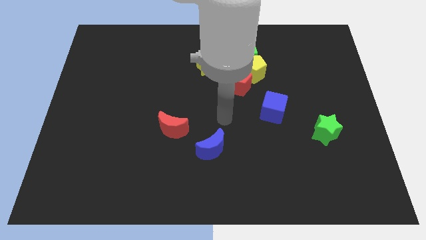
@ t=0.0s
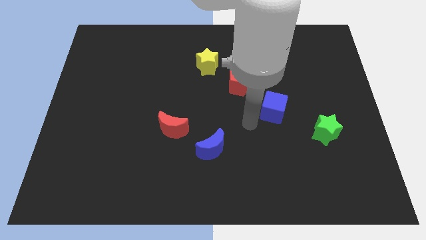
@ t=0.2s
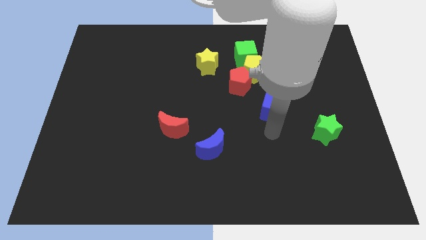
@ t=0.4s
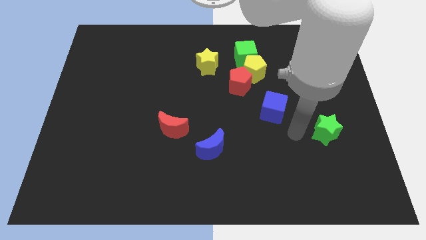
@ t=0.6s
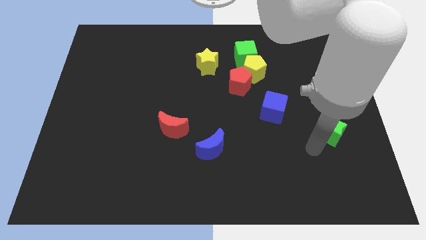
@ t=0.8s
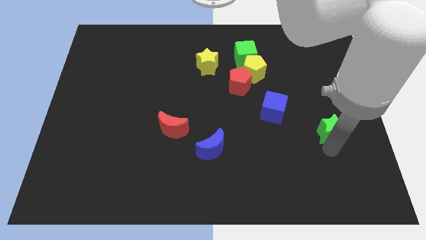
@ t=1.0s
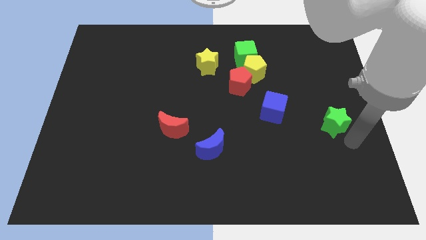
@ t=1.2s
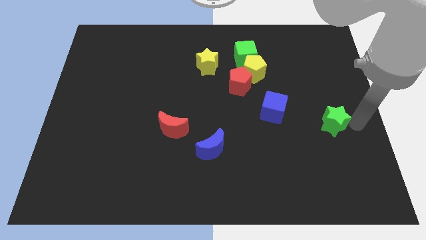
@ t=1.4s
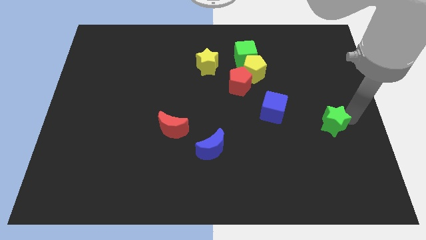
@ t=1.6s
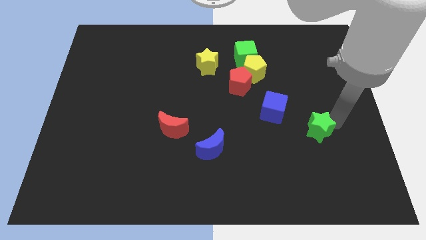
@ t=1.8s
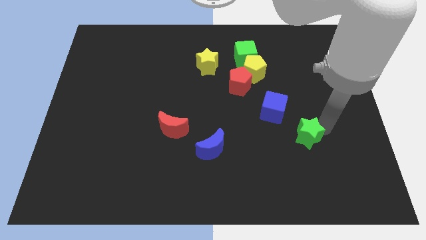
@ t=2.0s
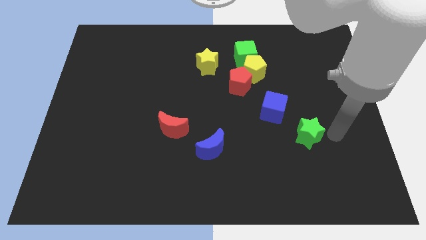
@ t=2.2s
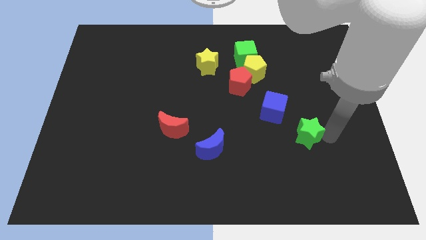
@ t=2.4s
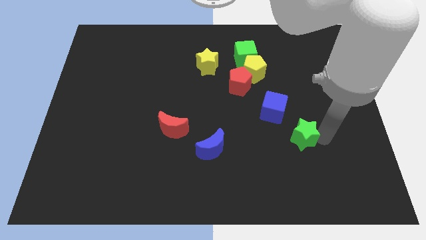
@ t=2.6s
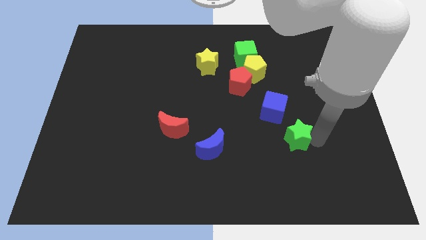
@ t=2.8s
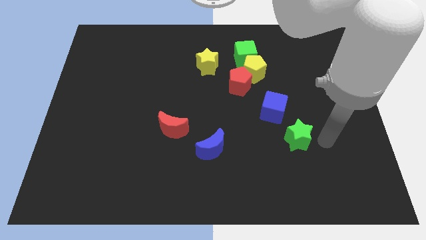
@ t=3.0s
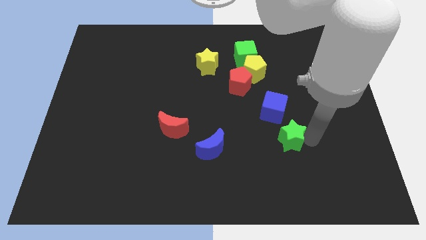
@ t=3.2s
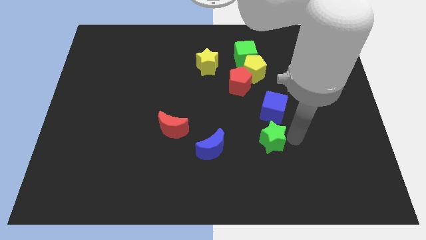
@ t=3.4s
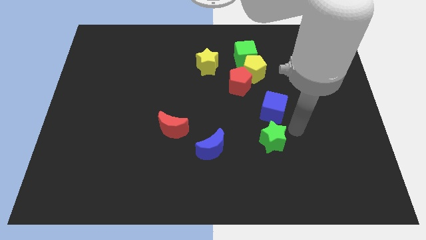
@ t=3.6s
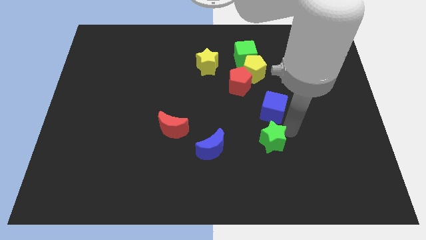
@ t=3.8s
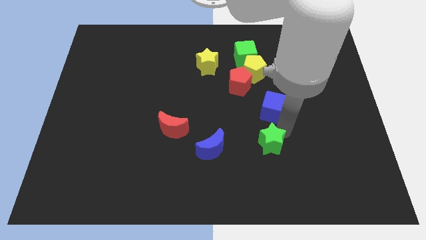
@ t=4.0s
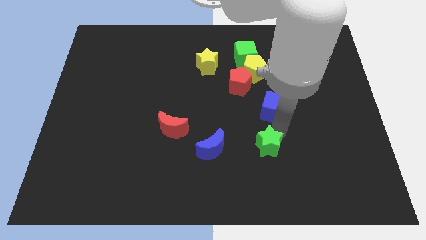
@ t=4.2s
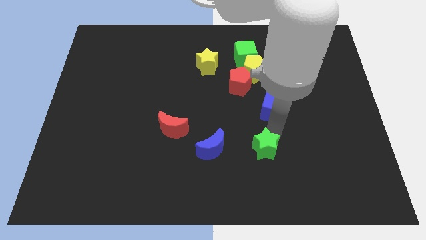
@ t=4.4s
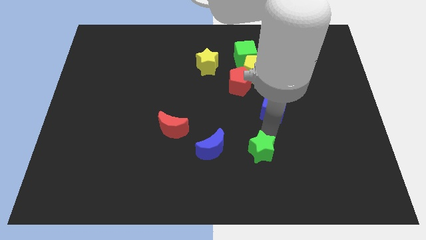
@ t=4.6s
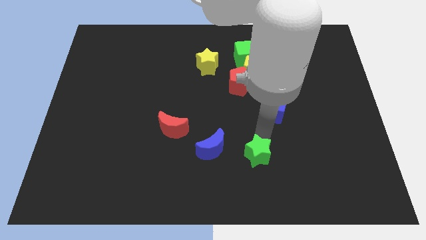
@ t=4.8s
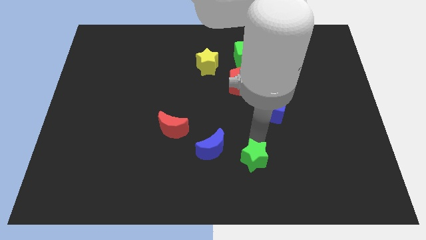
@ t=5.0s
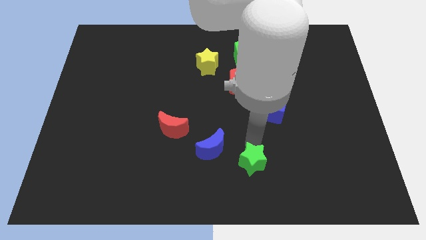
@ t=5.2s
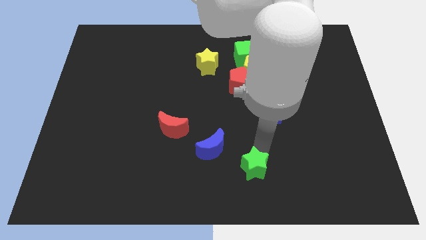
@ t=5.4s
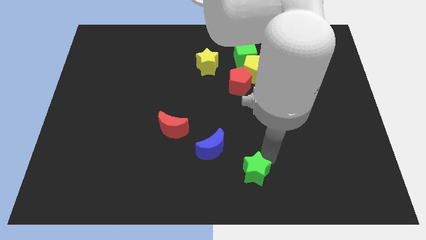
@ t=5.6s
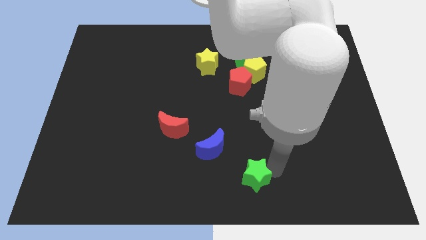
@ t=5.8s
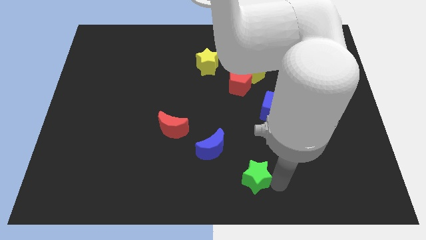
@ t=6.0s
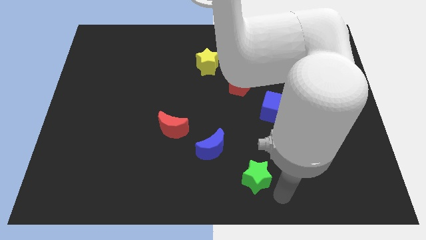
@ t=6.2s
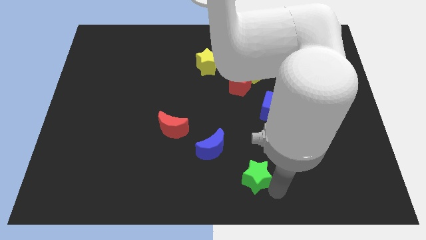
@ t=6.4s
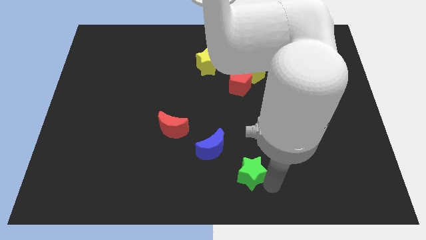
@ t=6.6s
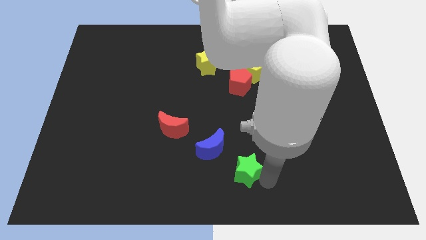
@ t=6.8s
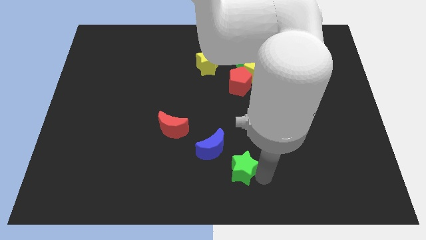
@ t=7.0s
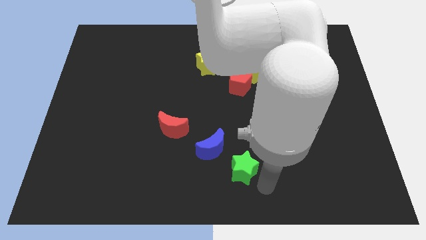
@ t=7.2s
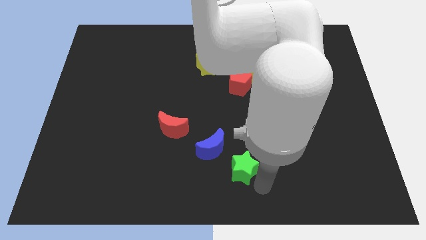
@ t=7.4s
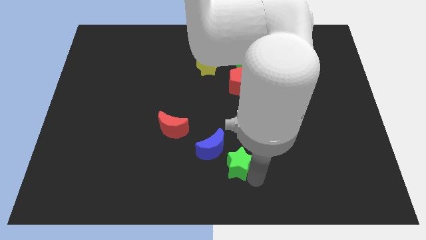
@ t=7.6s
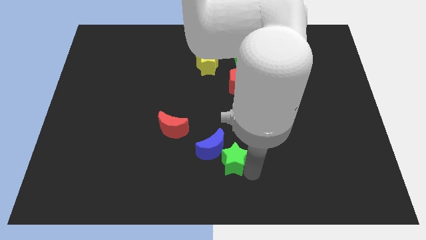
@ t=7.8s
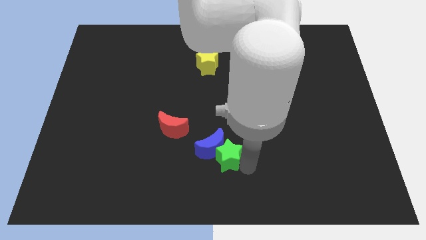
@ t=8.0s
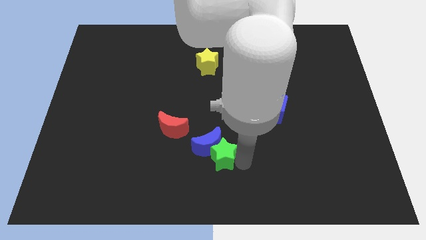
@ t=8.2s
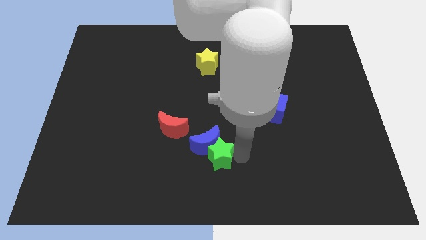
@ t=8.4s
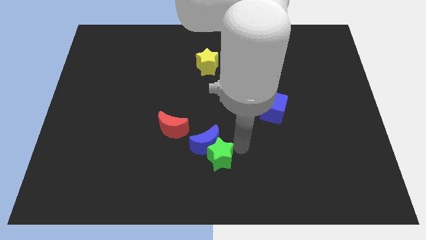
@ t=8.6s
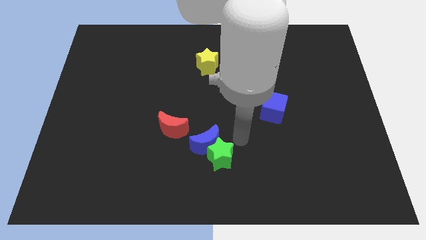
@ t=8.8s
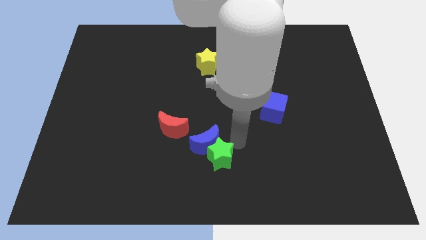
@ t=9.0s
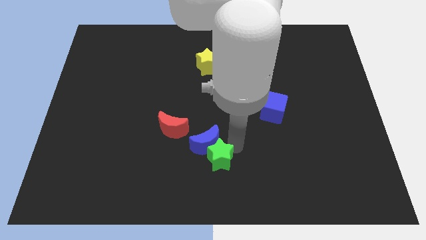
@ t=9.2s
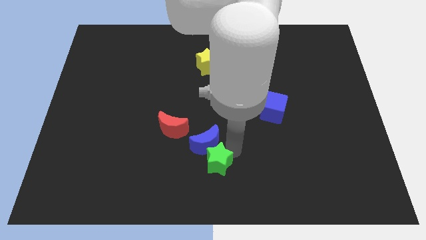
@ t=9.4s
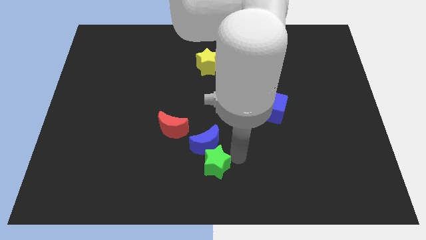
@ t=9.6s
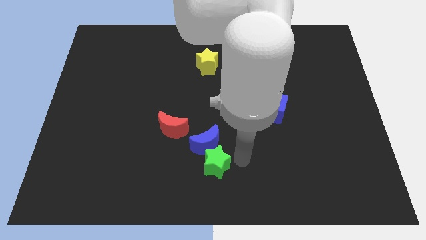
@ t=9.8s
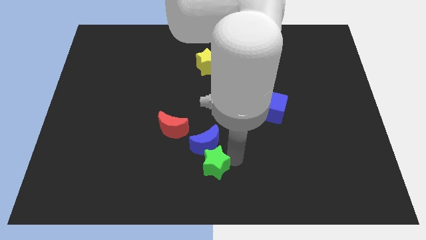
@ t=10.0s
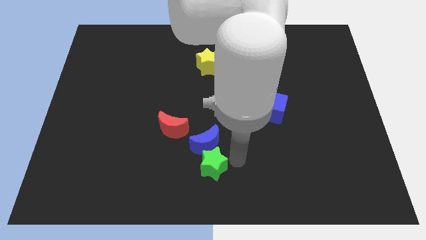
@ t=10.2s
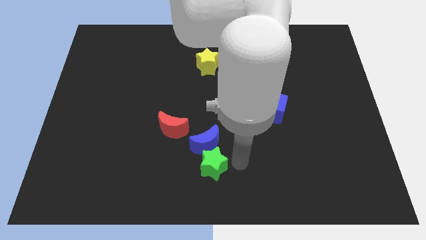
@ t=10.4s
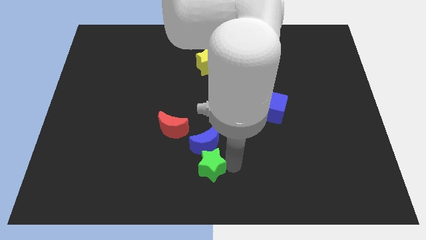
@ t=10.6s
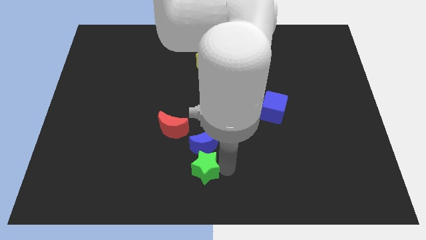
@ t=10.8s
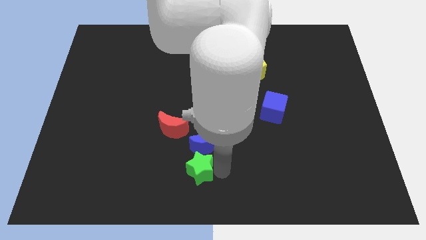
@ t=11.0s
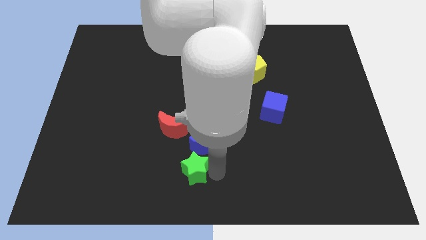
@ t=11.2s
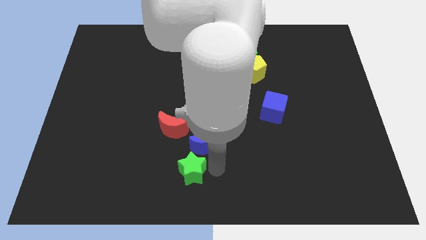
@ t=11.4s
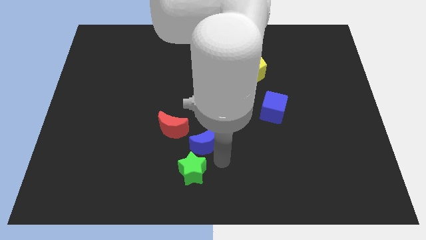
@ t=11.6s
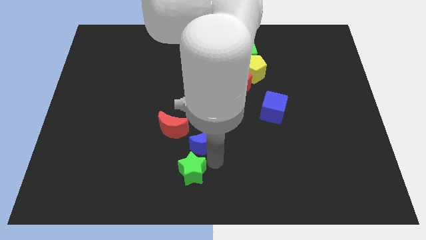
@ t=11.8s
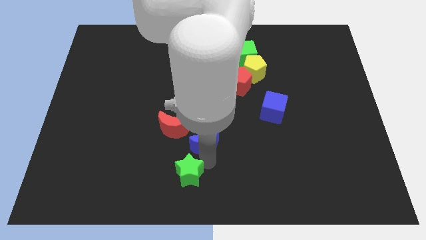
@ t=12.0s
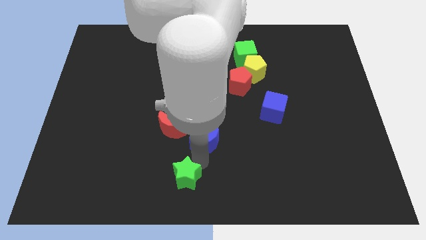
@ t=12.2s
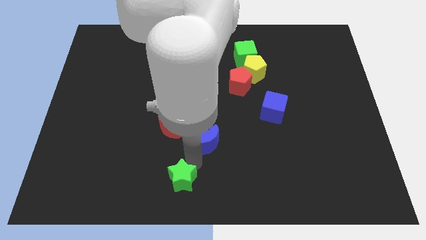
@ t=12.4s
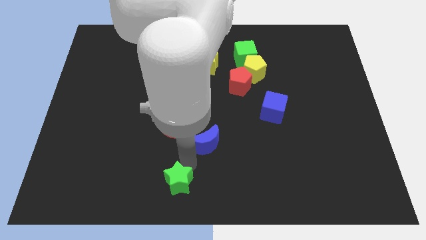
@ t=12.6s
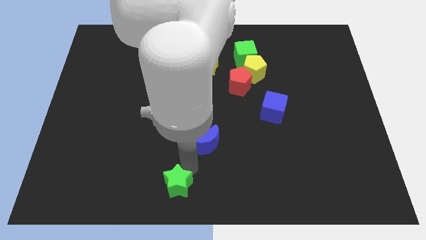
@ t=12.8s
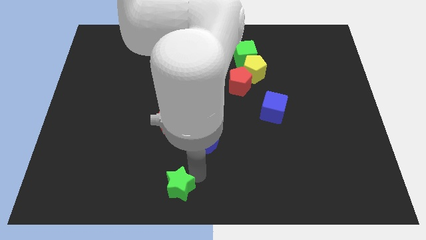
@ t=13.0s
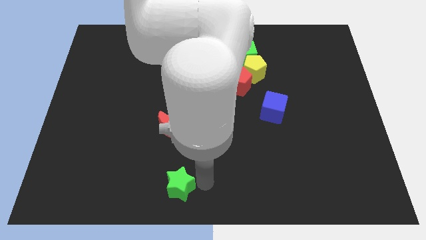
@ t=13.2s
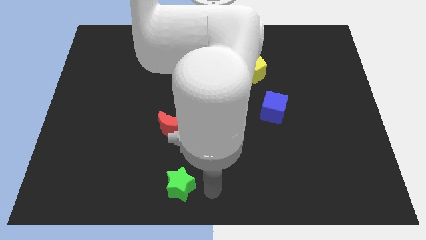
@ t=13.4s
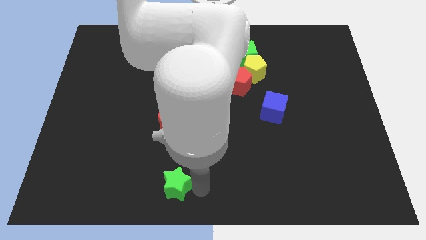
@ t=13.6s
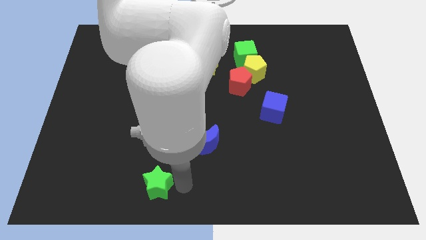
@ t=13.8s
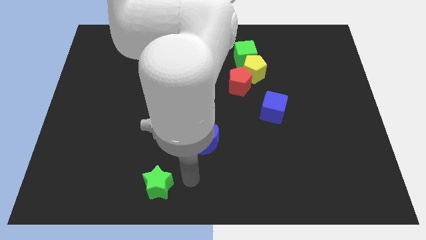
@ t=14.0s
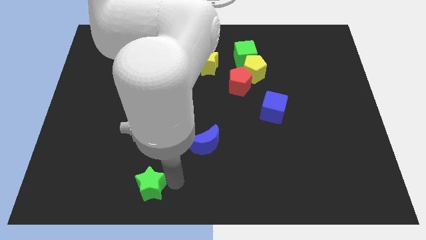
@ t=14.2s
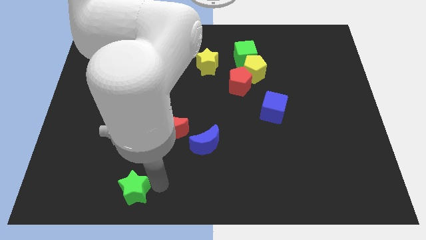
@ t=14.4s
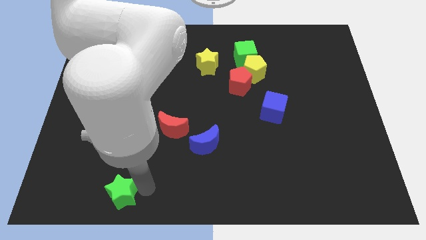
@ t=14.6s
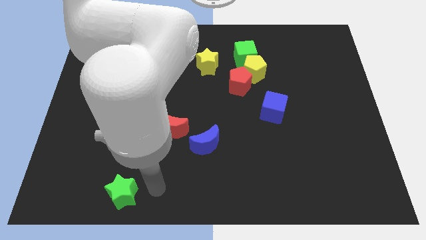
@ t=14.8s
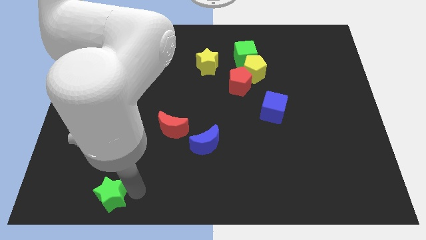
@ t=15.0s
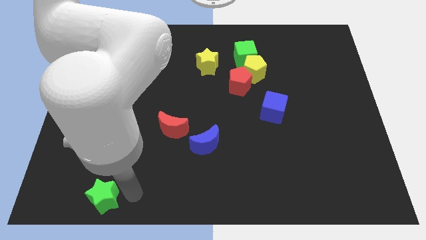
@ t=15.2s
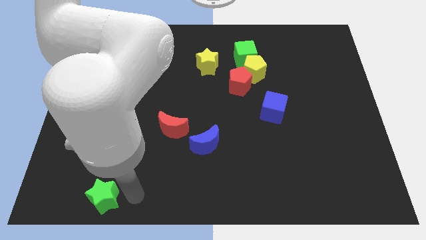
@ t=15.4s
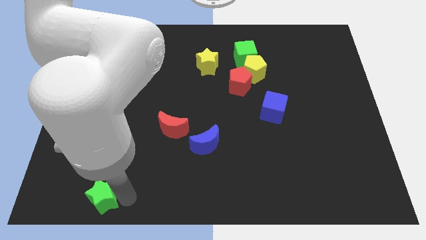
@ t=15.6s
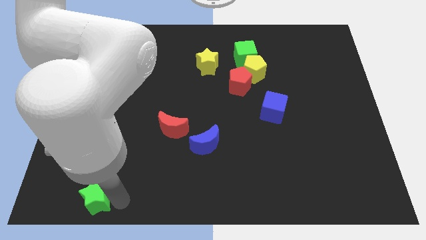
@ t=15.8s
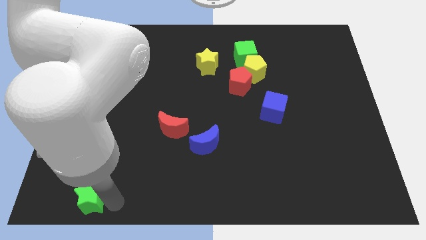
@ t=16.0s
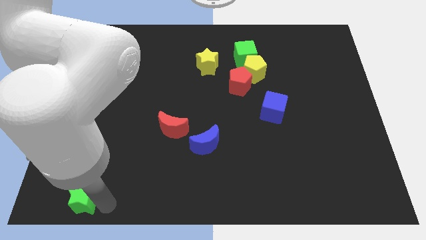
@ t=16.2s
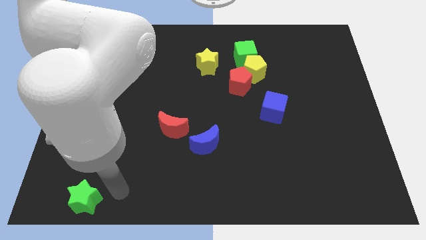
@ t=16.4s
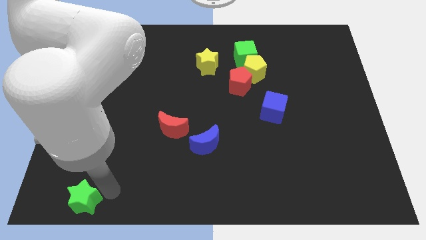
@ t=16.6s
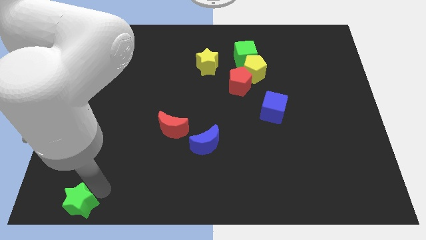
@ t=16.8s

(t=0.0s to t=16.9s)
slide the green star to the bottom left of the board
